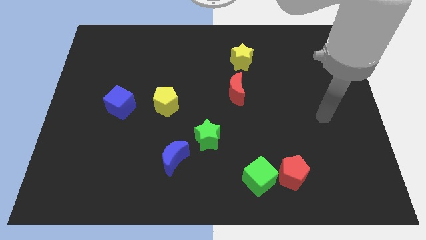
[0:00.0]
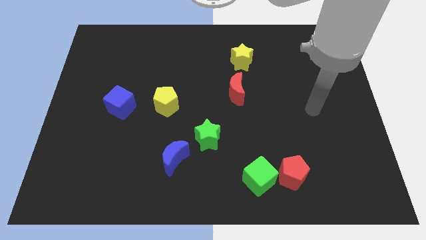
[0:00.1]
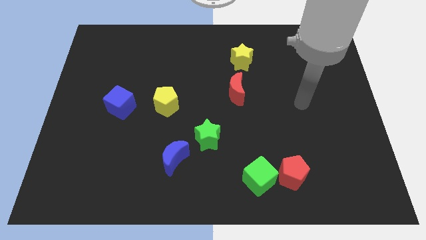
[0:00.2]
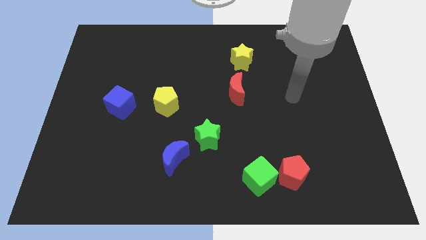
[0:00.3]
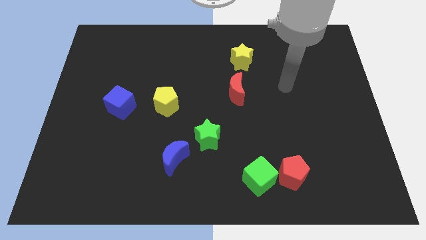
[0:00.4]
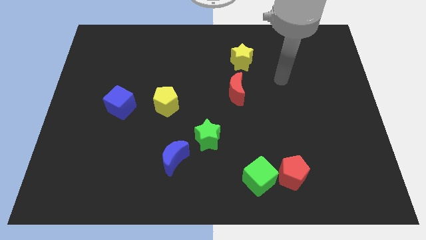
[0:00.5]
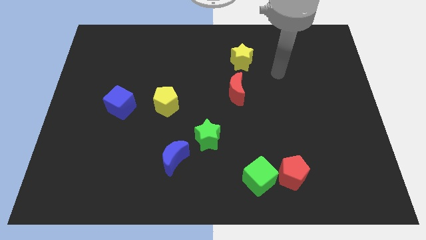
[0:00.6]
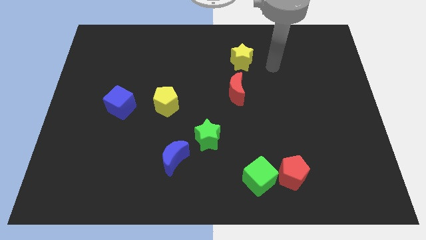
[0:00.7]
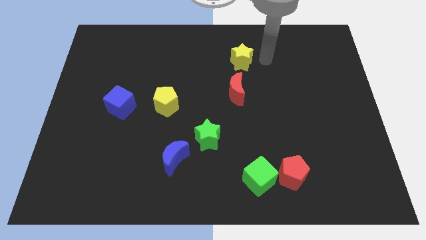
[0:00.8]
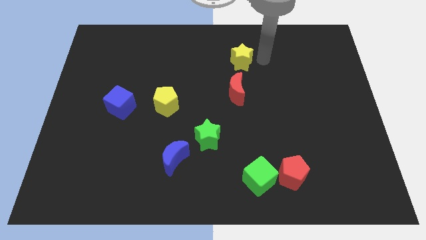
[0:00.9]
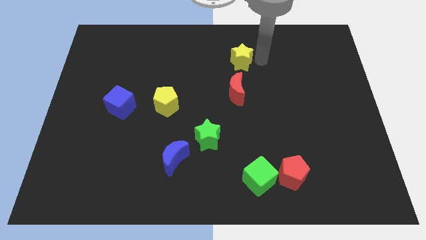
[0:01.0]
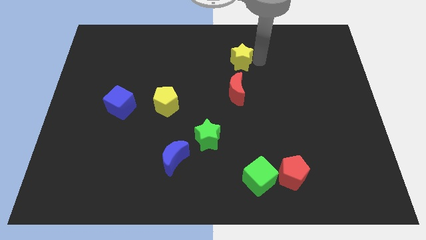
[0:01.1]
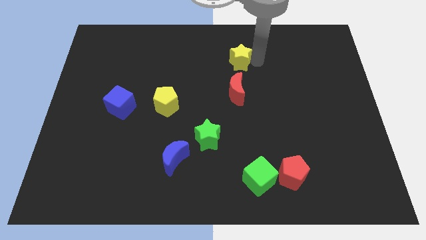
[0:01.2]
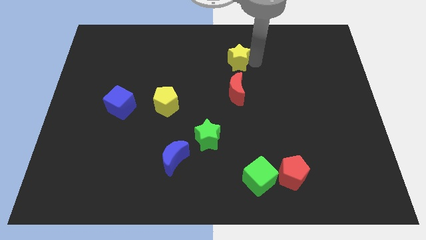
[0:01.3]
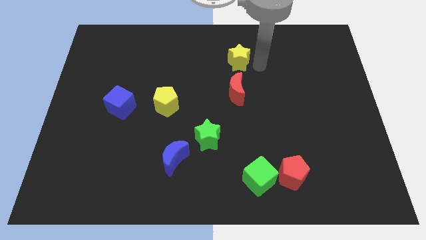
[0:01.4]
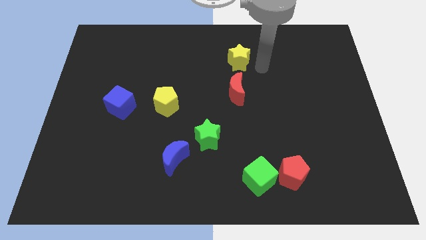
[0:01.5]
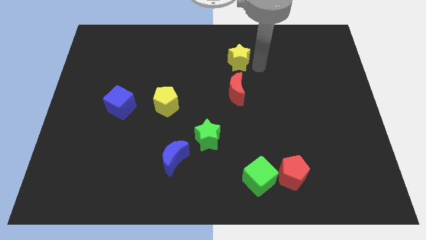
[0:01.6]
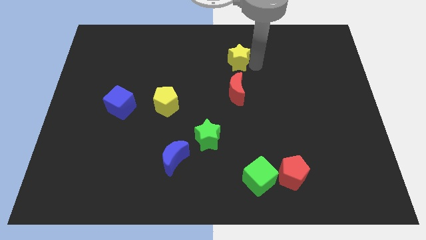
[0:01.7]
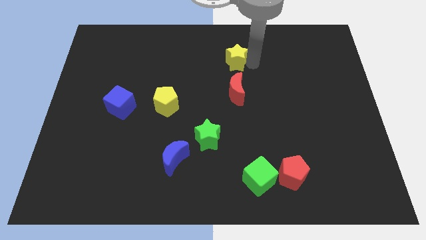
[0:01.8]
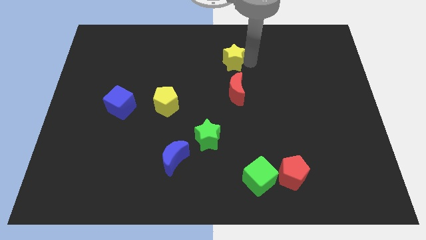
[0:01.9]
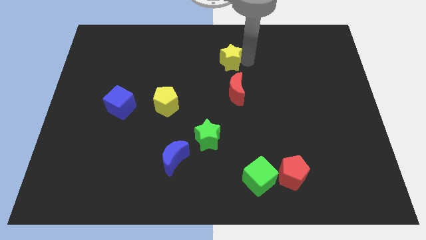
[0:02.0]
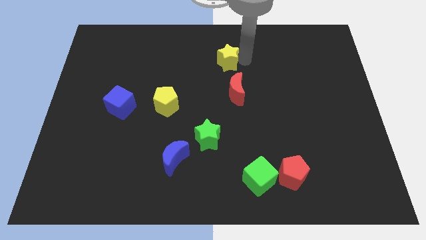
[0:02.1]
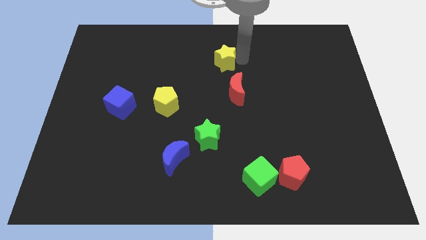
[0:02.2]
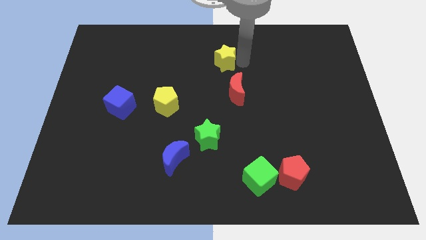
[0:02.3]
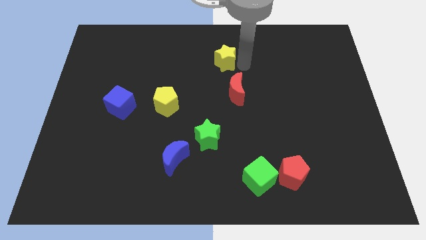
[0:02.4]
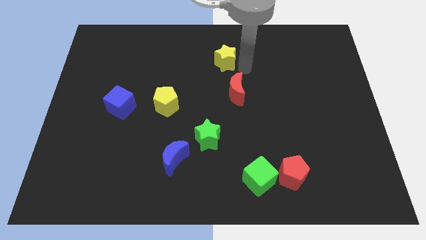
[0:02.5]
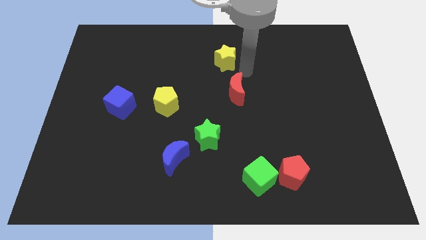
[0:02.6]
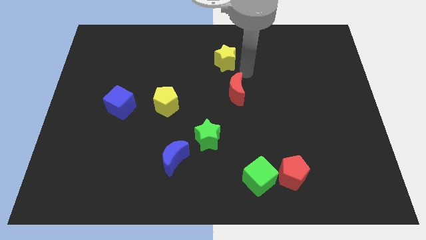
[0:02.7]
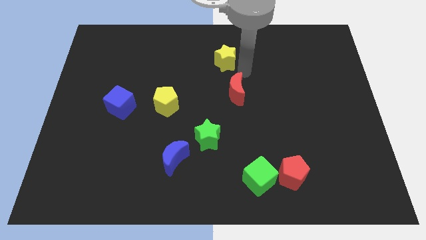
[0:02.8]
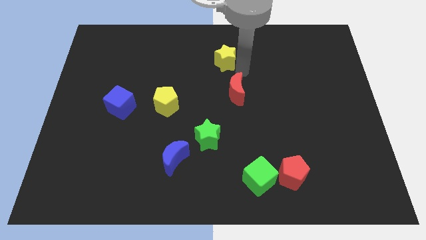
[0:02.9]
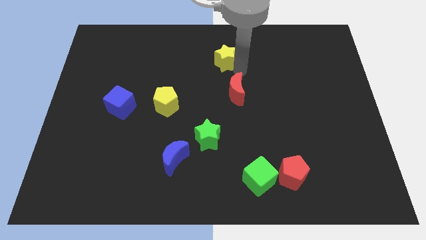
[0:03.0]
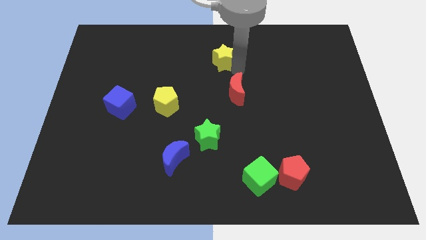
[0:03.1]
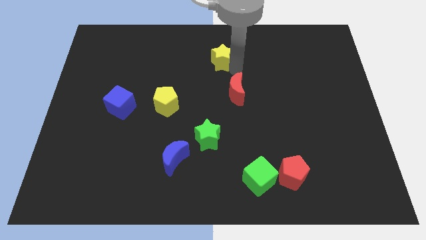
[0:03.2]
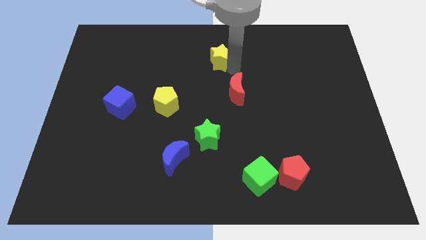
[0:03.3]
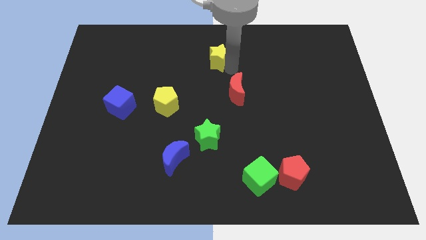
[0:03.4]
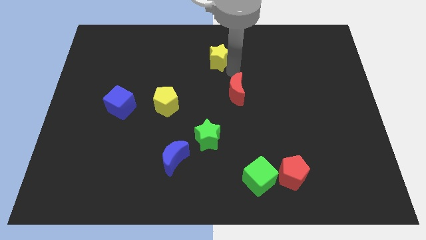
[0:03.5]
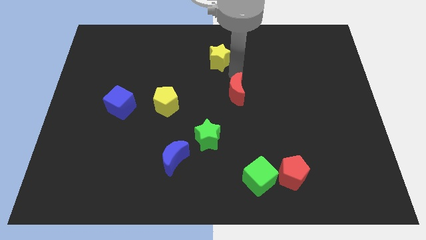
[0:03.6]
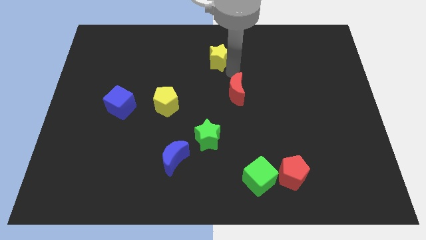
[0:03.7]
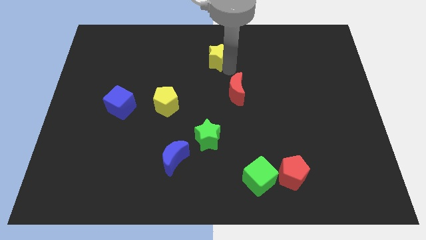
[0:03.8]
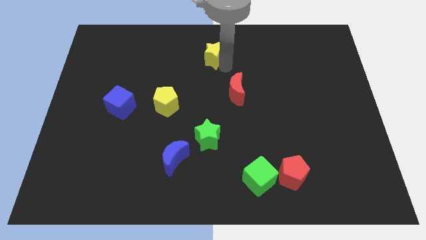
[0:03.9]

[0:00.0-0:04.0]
move the yellow star somewhat left

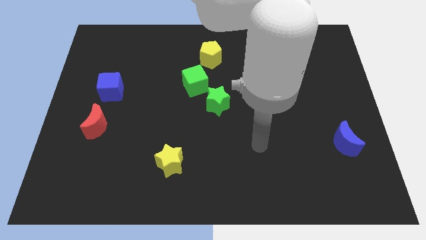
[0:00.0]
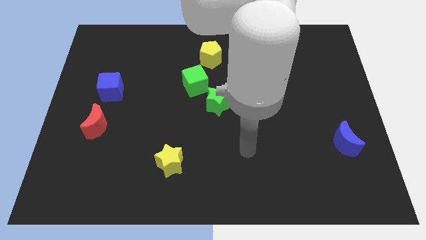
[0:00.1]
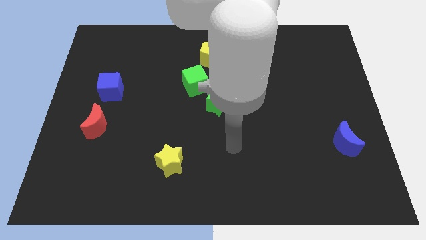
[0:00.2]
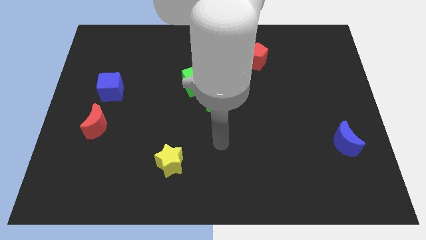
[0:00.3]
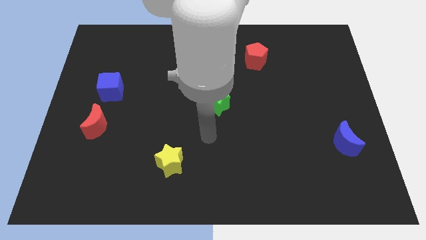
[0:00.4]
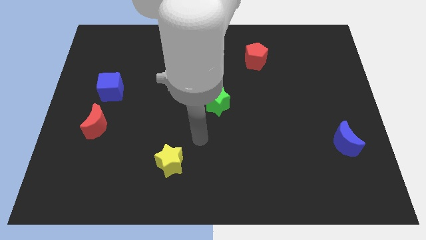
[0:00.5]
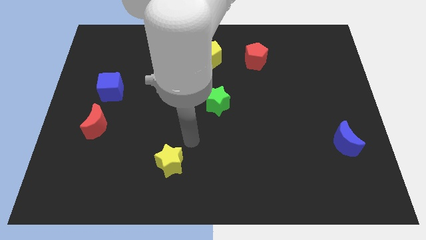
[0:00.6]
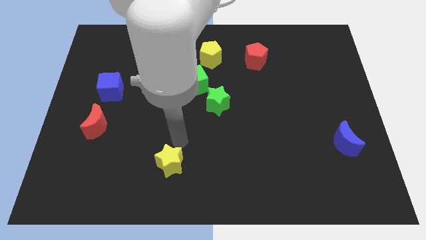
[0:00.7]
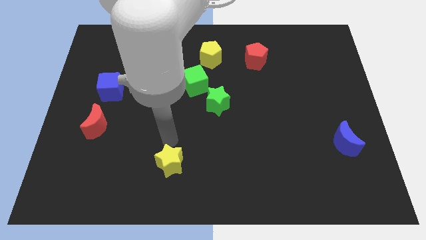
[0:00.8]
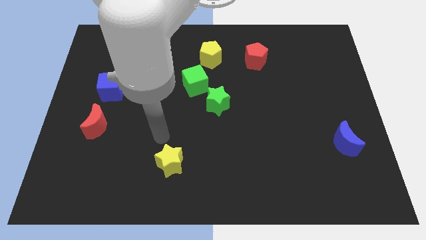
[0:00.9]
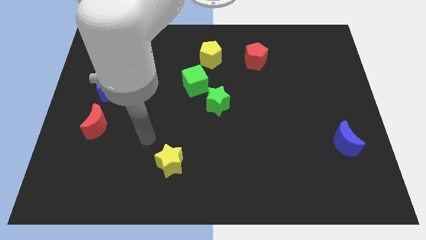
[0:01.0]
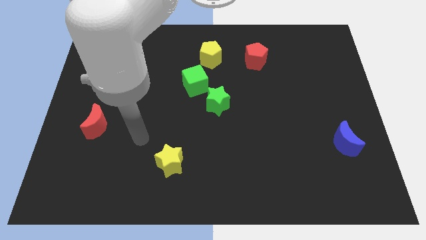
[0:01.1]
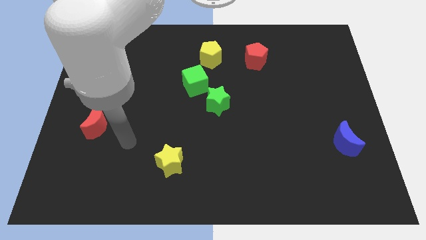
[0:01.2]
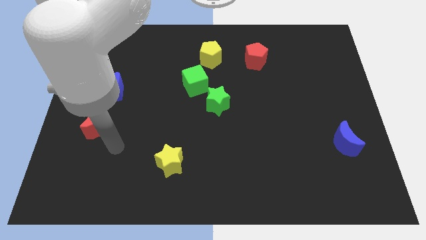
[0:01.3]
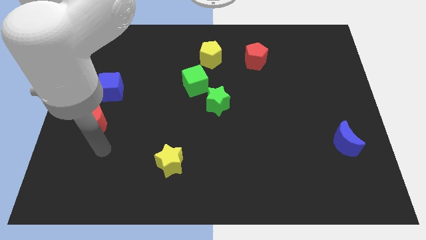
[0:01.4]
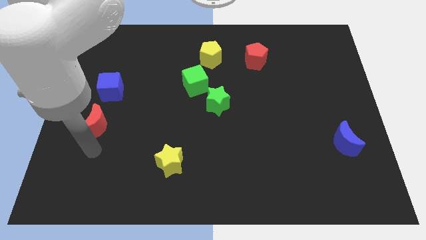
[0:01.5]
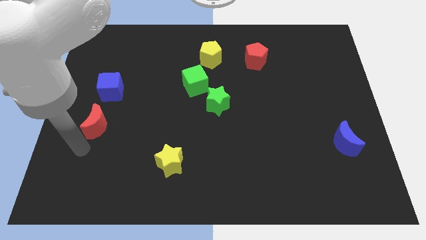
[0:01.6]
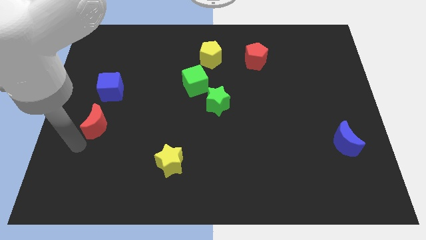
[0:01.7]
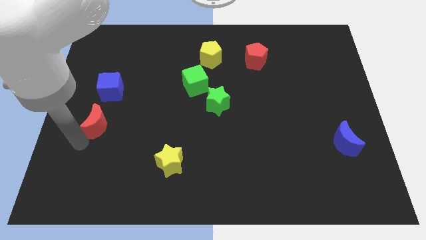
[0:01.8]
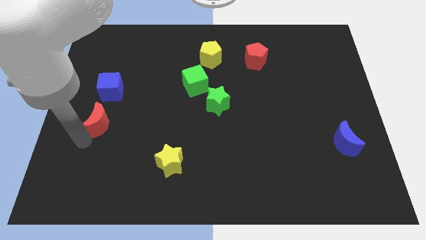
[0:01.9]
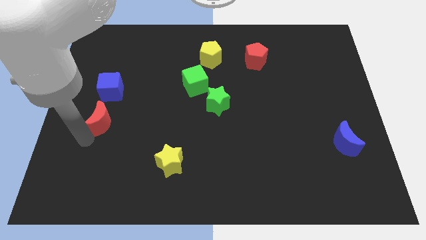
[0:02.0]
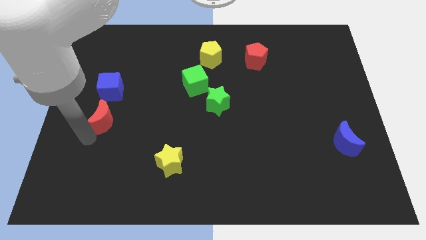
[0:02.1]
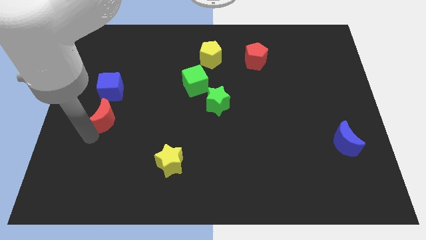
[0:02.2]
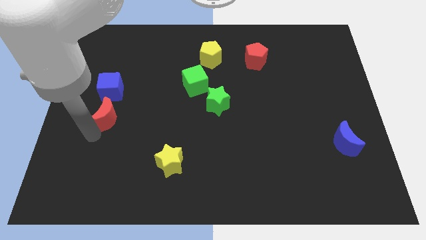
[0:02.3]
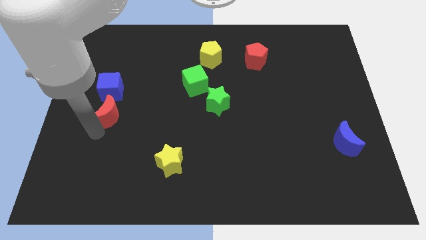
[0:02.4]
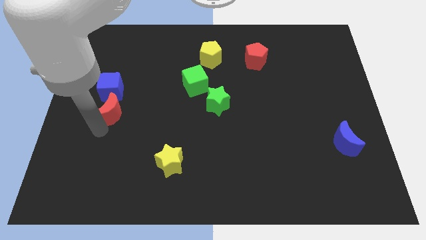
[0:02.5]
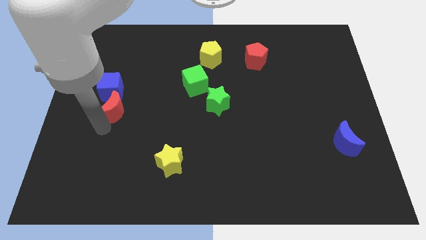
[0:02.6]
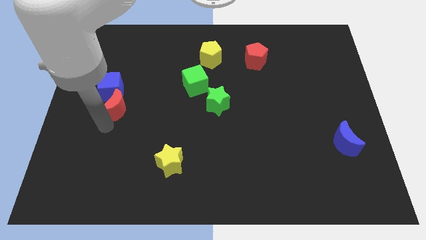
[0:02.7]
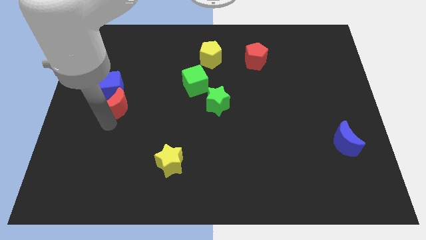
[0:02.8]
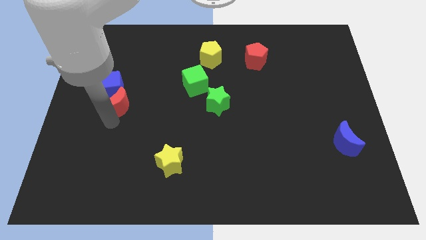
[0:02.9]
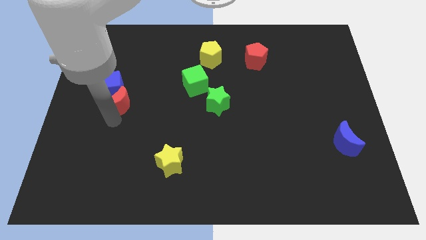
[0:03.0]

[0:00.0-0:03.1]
slightly slide the red moon up and then to the right

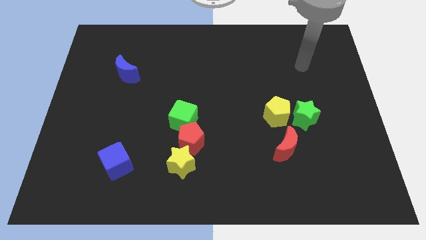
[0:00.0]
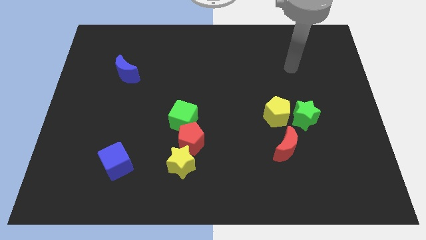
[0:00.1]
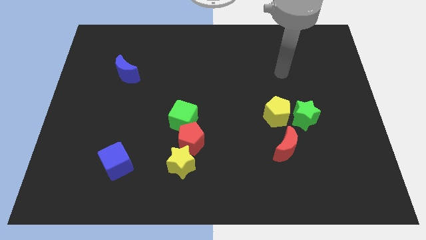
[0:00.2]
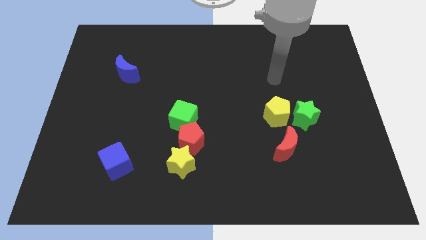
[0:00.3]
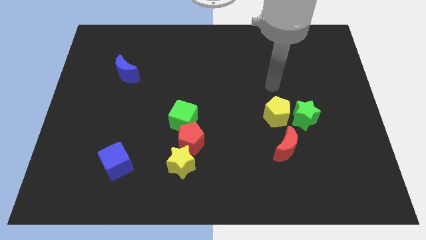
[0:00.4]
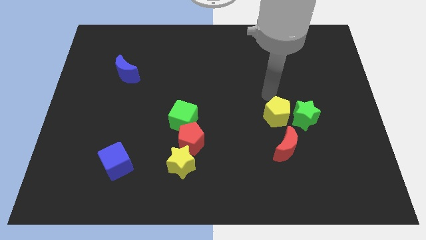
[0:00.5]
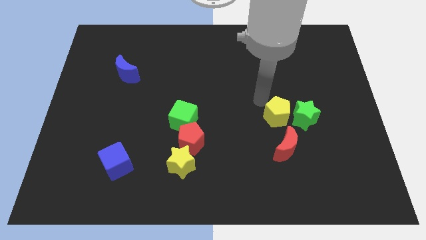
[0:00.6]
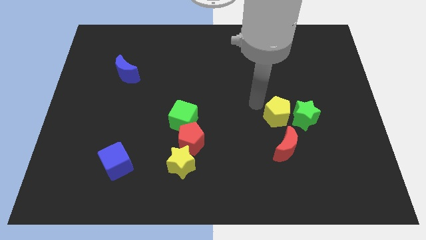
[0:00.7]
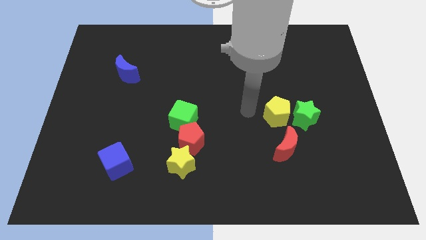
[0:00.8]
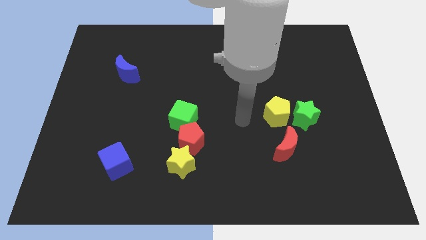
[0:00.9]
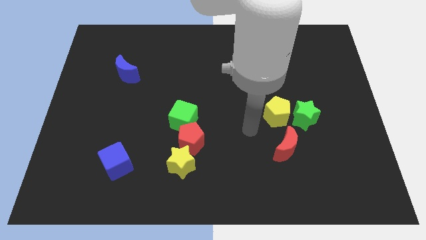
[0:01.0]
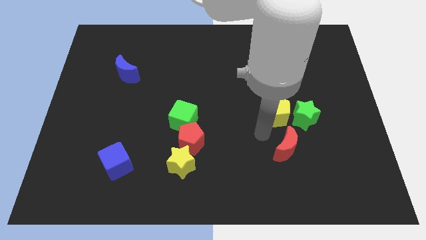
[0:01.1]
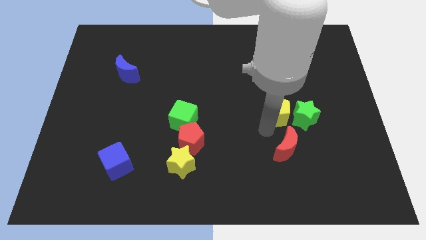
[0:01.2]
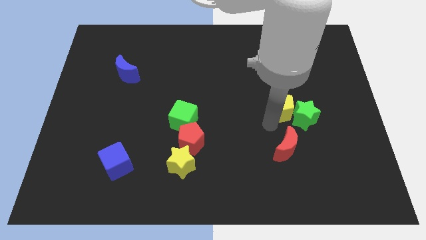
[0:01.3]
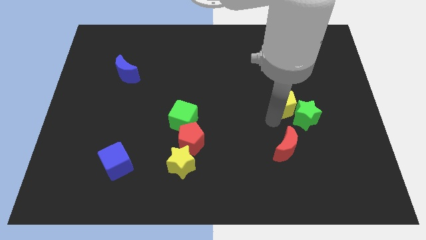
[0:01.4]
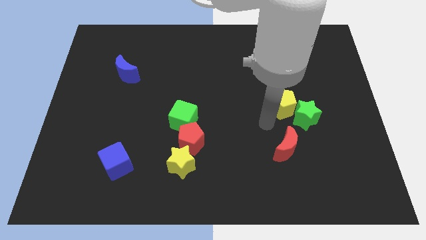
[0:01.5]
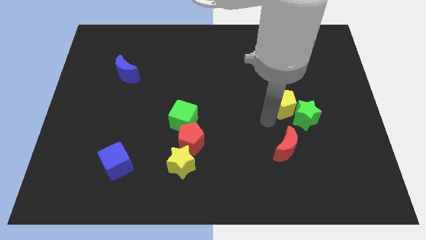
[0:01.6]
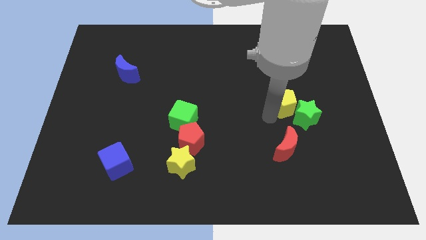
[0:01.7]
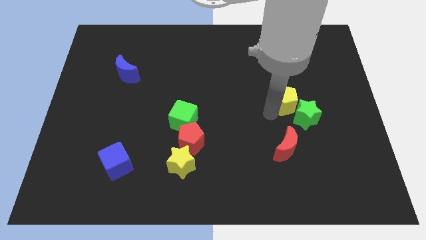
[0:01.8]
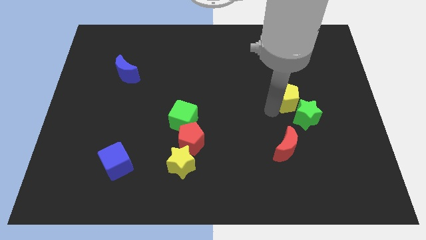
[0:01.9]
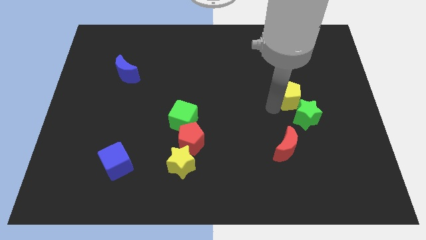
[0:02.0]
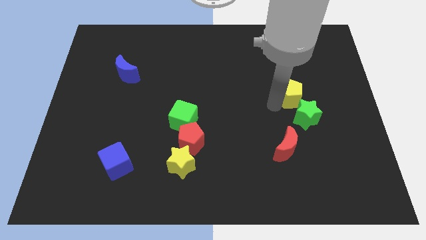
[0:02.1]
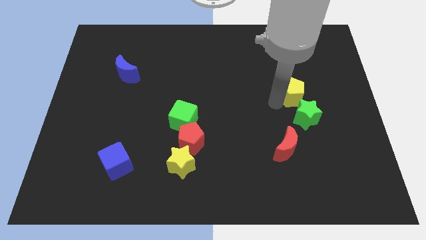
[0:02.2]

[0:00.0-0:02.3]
push the yellow pentagon up and right diagonally a little bit
